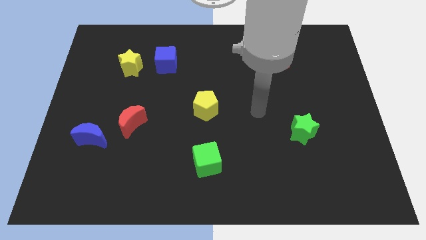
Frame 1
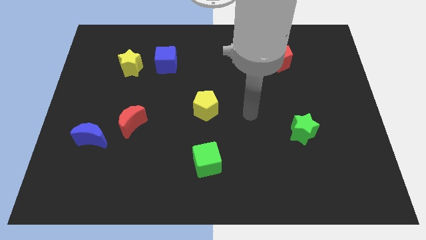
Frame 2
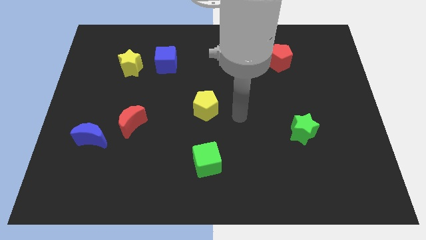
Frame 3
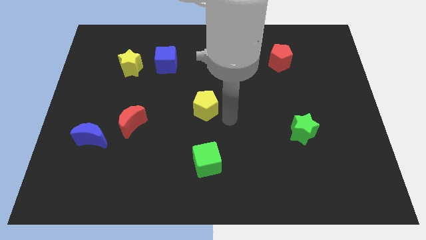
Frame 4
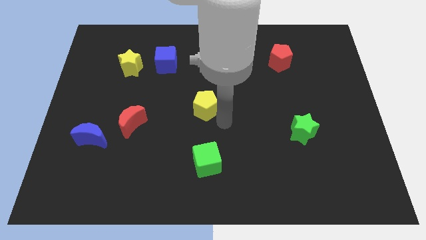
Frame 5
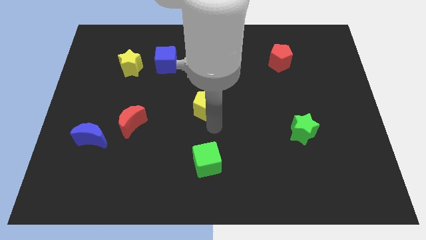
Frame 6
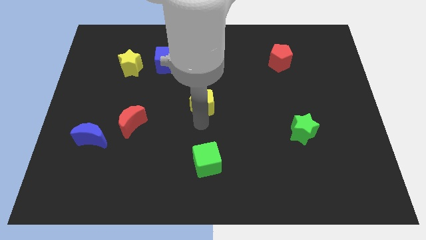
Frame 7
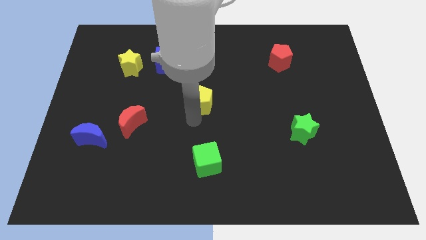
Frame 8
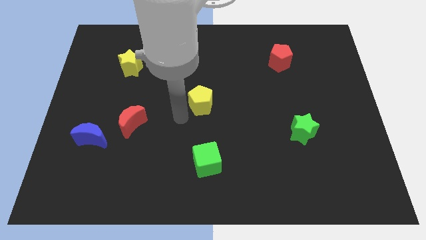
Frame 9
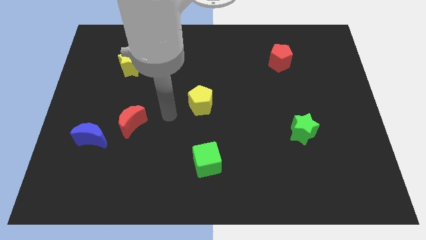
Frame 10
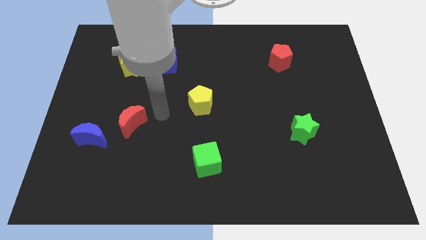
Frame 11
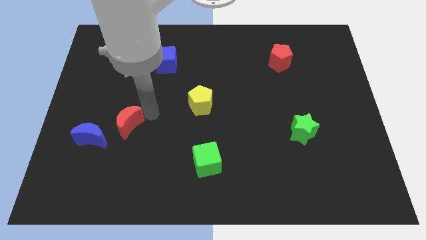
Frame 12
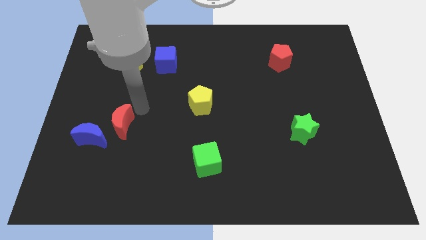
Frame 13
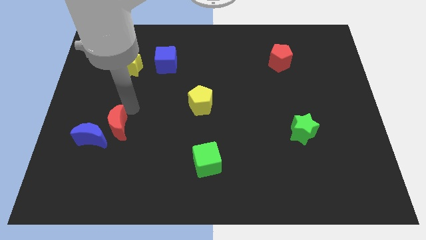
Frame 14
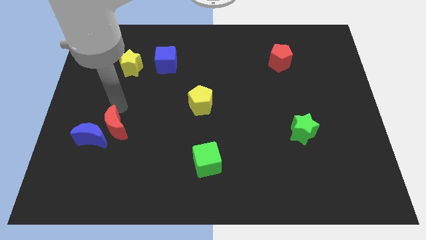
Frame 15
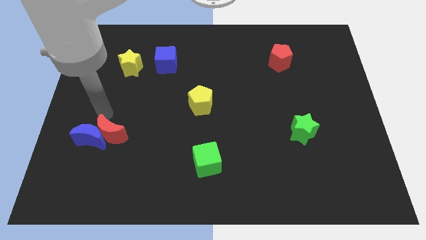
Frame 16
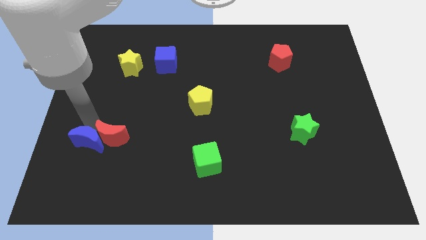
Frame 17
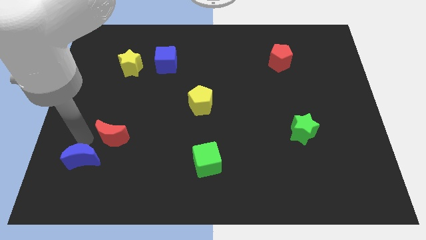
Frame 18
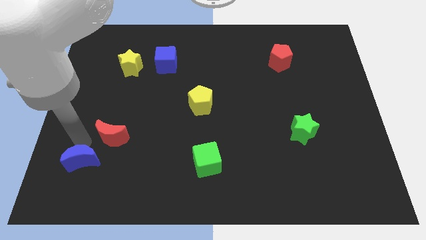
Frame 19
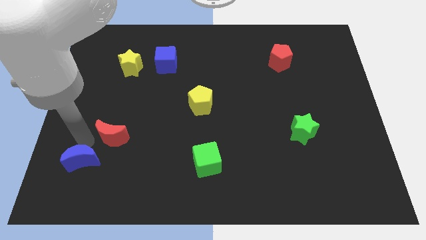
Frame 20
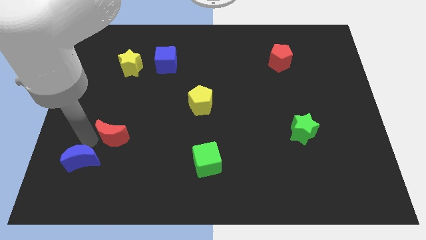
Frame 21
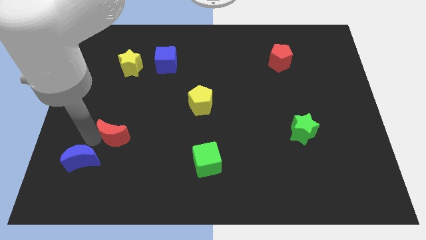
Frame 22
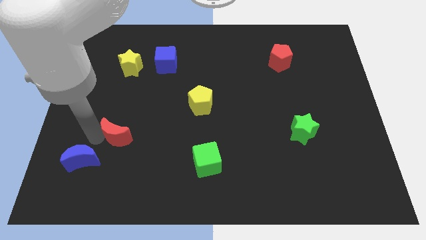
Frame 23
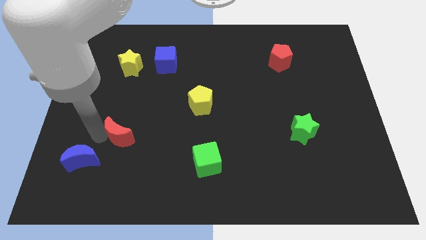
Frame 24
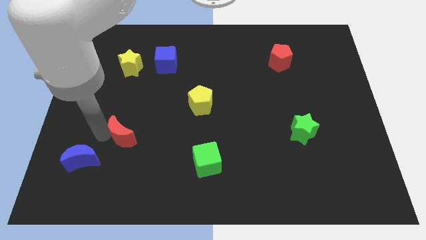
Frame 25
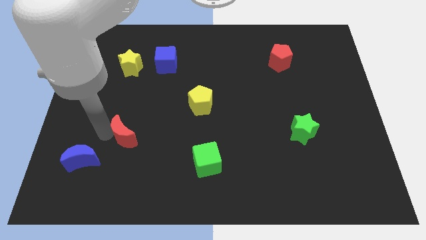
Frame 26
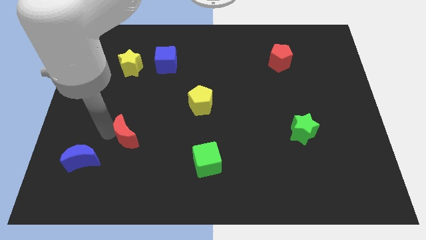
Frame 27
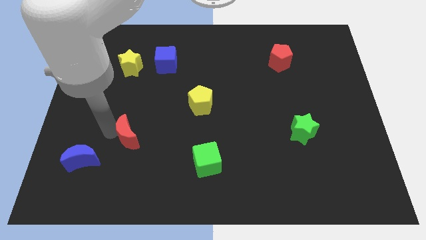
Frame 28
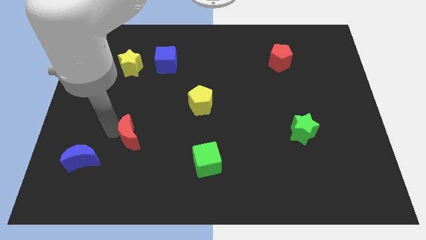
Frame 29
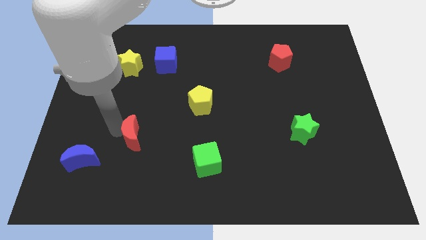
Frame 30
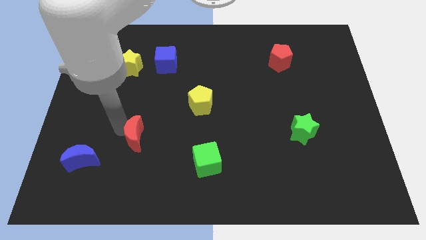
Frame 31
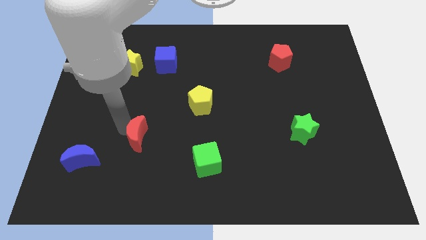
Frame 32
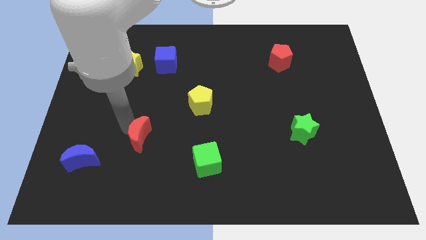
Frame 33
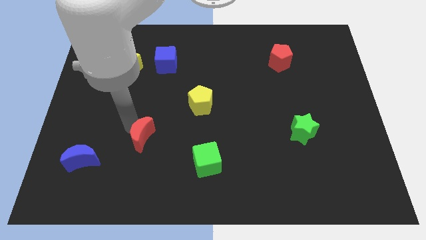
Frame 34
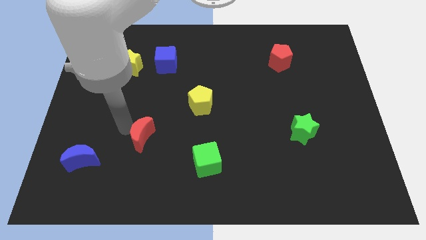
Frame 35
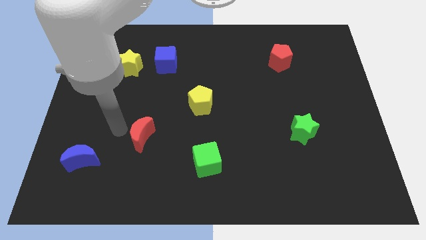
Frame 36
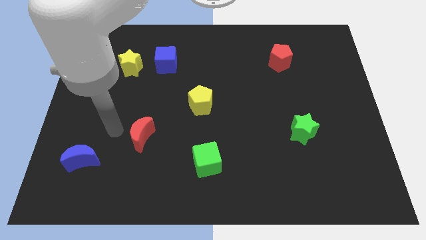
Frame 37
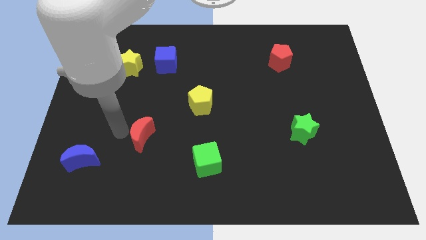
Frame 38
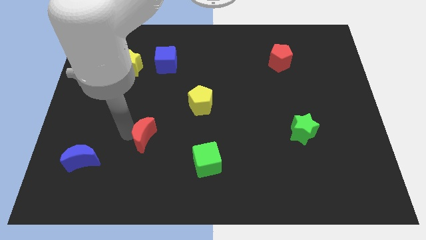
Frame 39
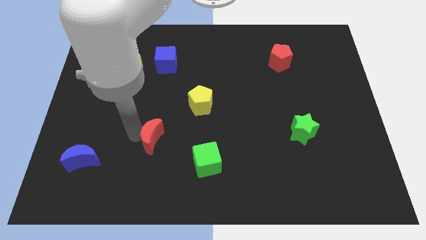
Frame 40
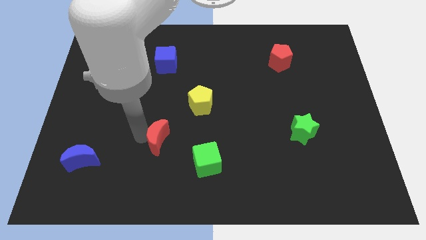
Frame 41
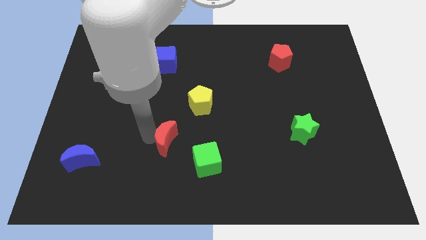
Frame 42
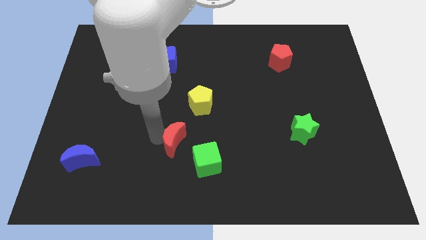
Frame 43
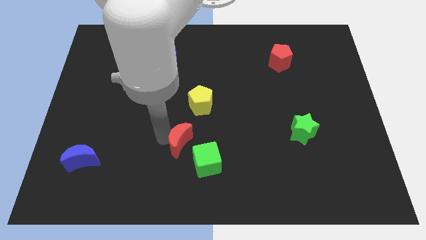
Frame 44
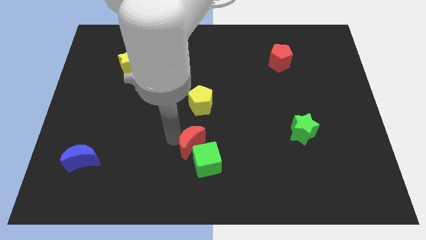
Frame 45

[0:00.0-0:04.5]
push the red moon close to the green cube

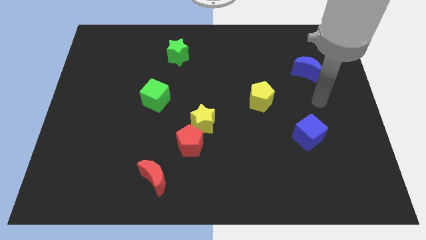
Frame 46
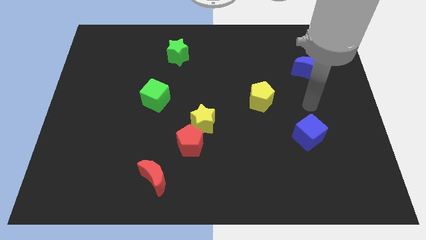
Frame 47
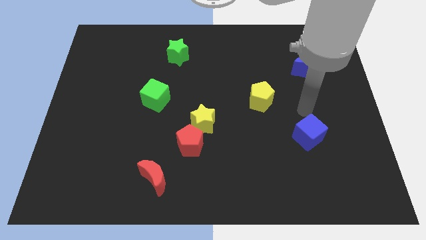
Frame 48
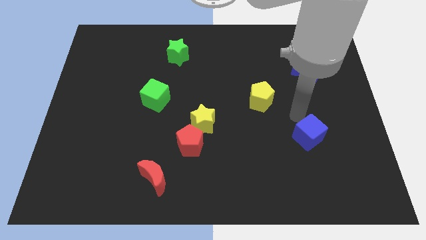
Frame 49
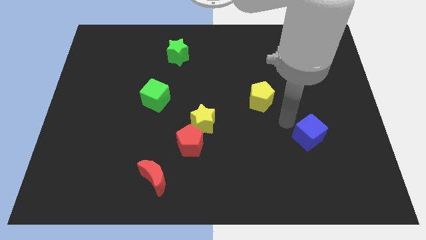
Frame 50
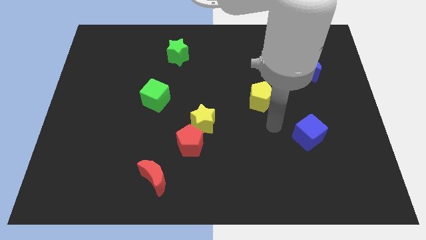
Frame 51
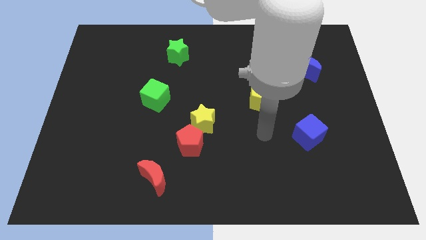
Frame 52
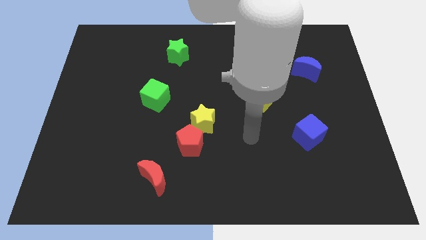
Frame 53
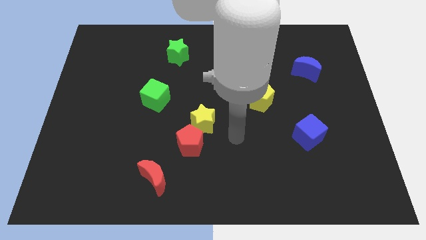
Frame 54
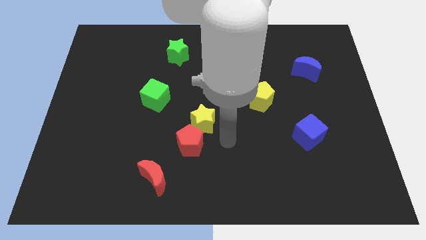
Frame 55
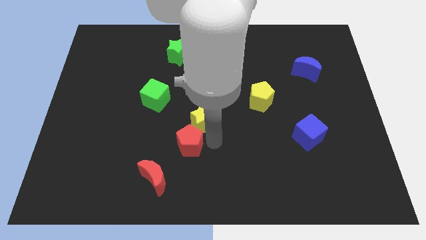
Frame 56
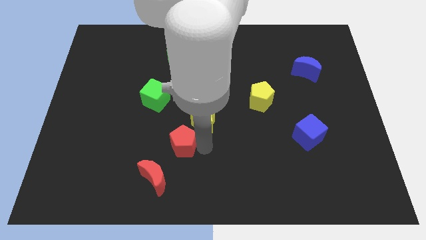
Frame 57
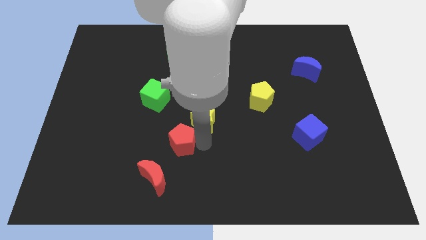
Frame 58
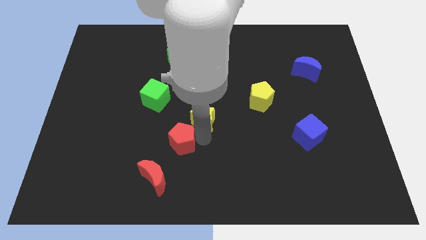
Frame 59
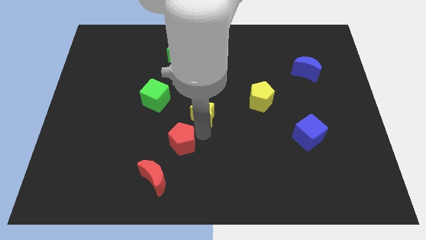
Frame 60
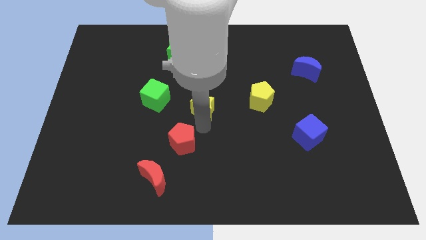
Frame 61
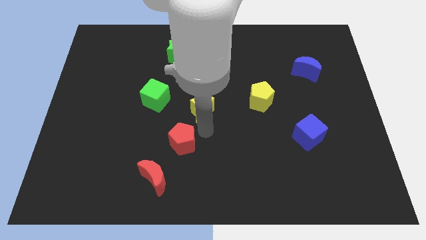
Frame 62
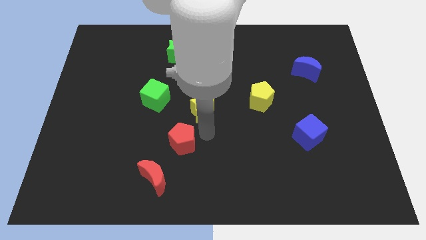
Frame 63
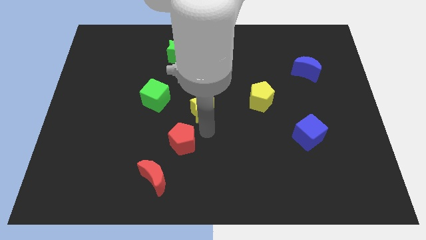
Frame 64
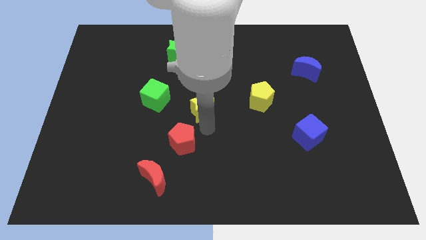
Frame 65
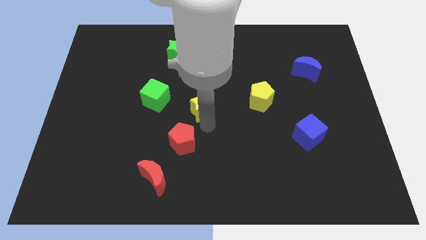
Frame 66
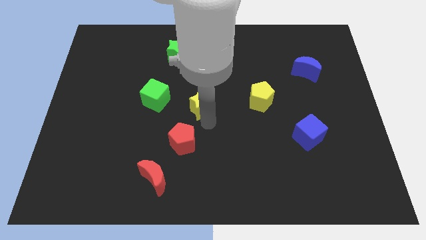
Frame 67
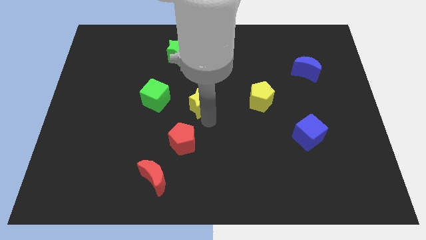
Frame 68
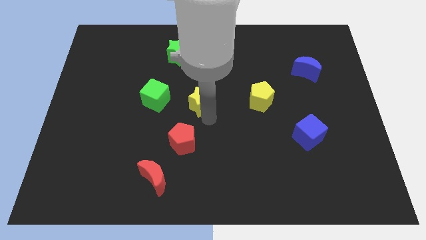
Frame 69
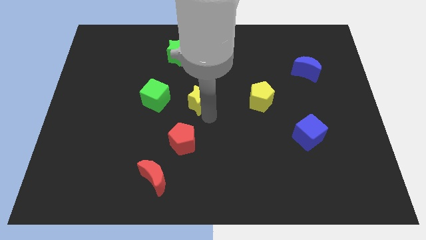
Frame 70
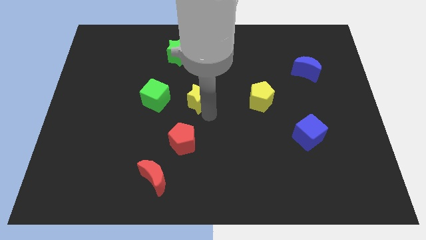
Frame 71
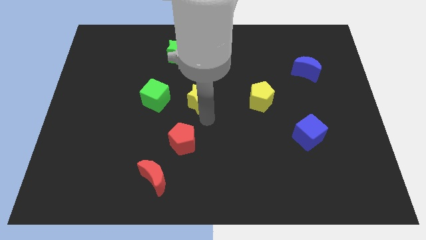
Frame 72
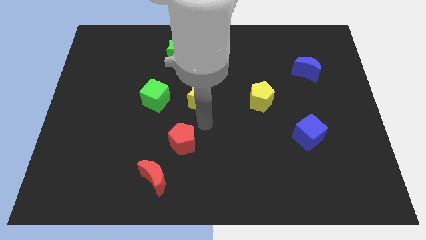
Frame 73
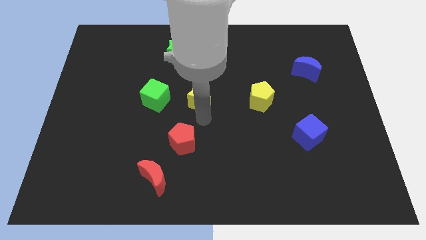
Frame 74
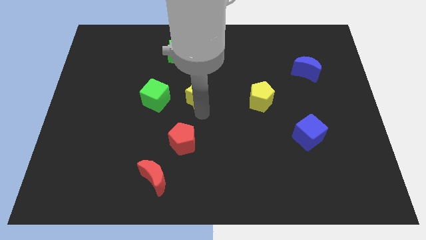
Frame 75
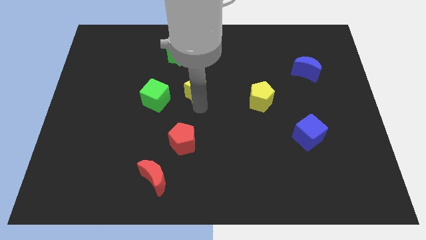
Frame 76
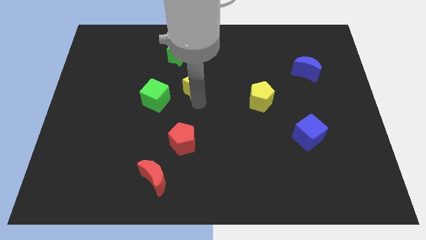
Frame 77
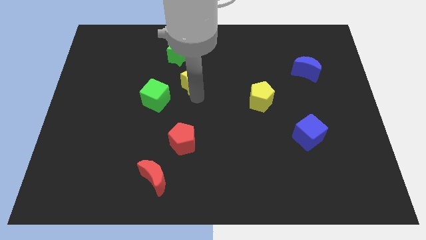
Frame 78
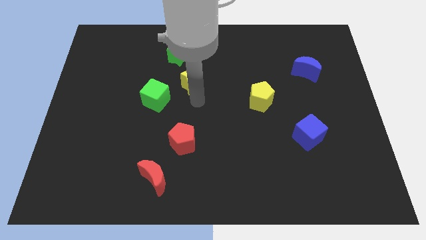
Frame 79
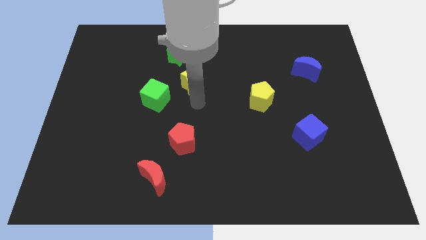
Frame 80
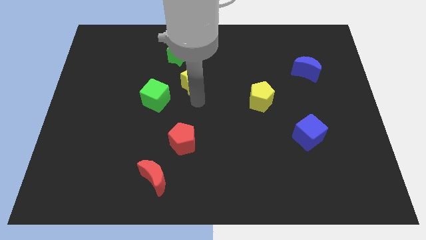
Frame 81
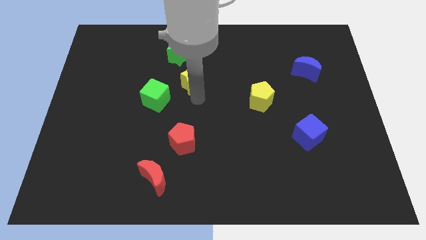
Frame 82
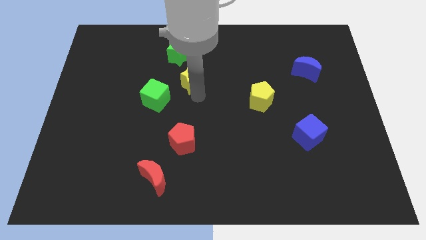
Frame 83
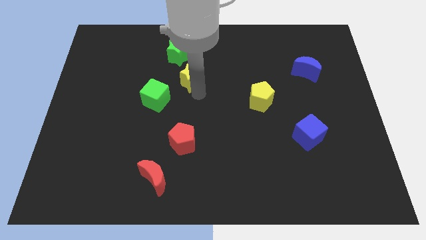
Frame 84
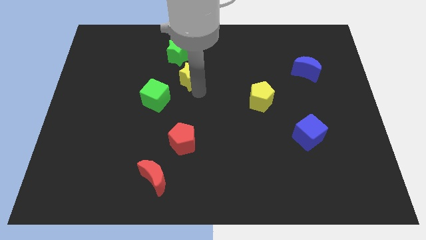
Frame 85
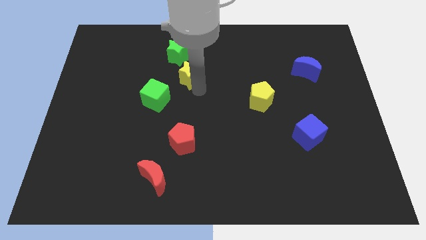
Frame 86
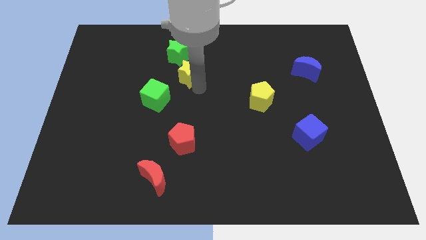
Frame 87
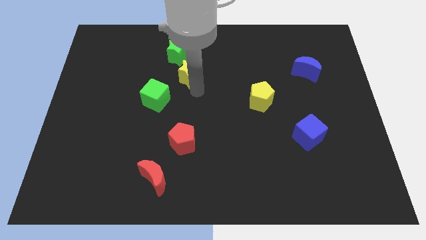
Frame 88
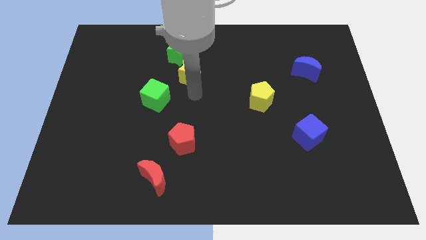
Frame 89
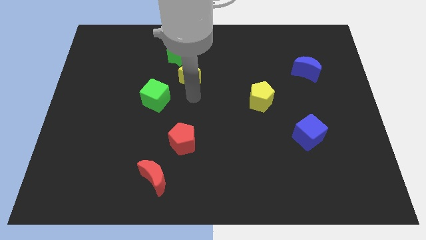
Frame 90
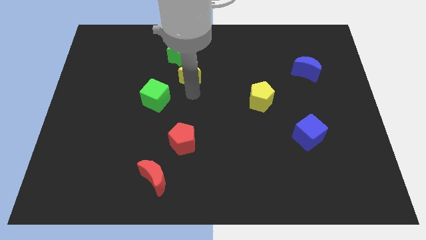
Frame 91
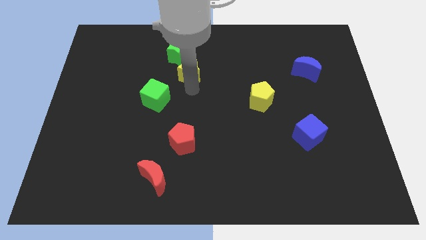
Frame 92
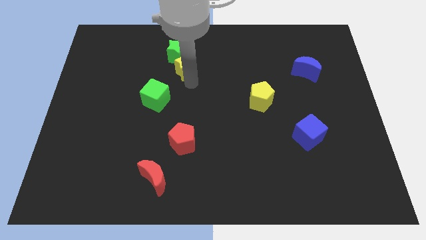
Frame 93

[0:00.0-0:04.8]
put the yellow star next to the green star
